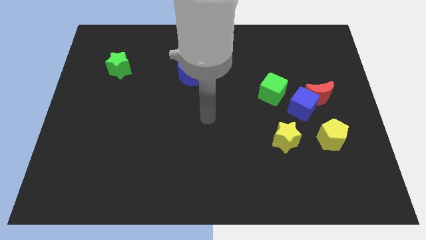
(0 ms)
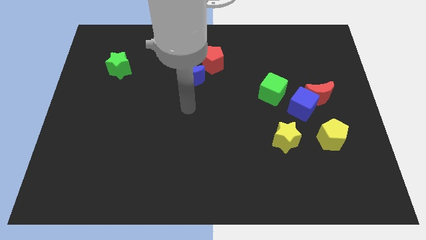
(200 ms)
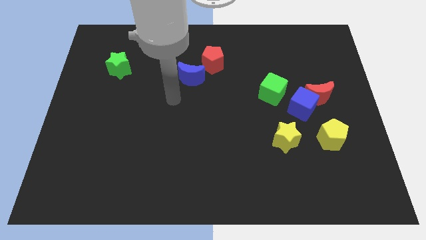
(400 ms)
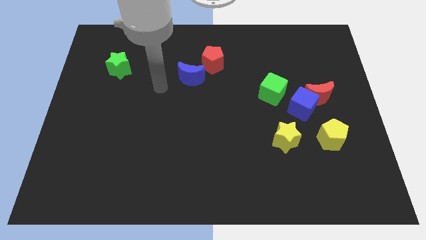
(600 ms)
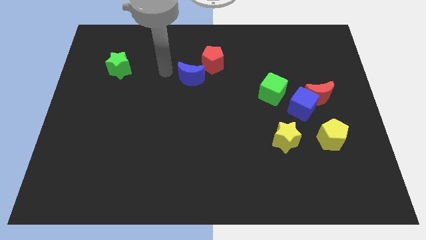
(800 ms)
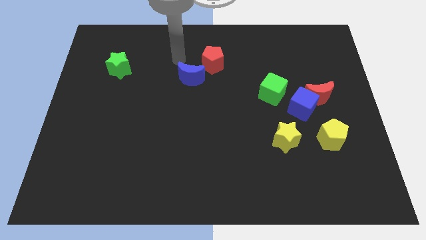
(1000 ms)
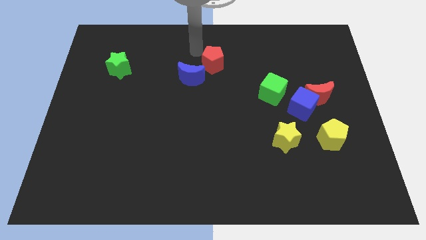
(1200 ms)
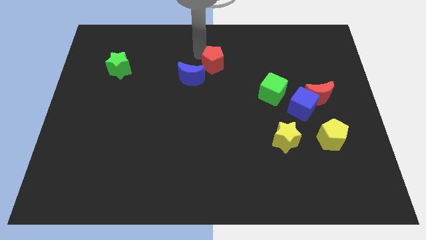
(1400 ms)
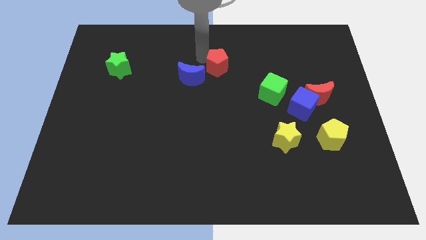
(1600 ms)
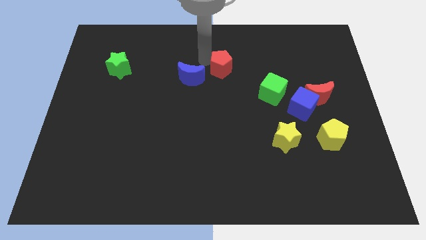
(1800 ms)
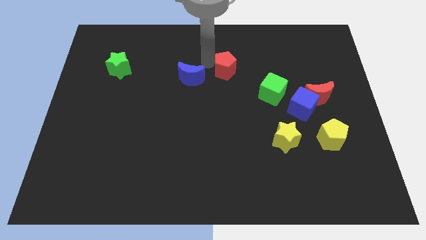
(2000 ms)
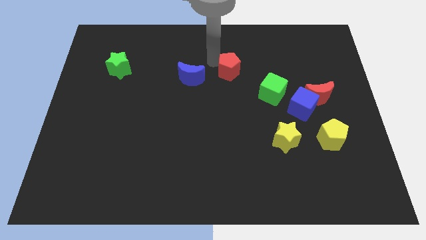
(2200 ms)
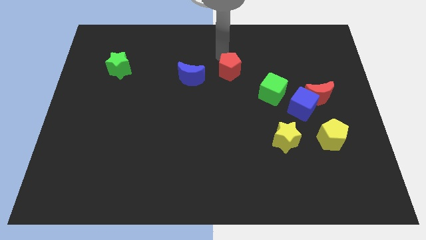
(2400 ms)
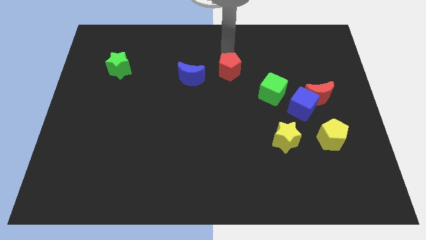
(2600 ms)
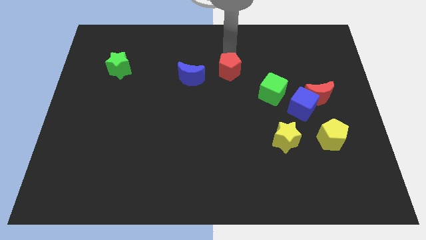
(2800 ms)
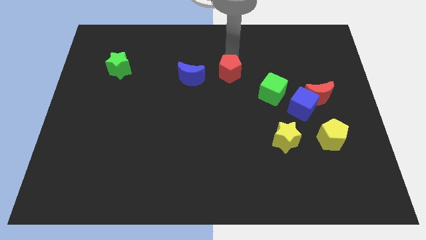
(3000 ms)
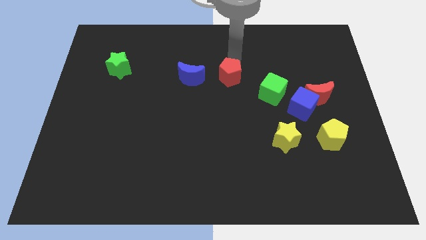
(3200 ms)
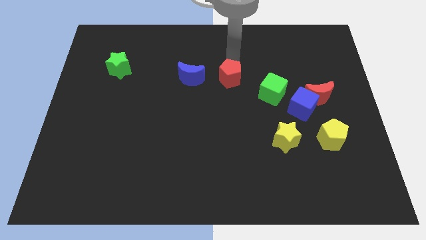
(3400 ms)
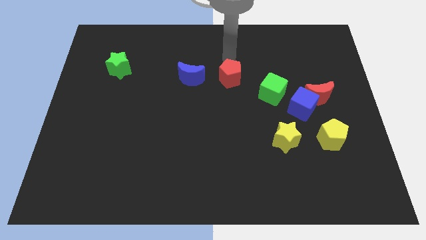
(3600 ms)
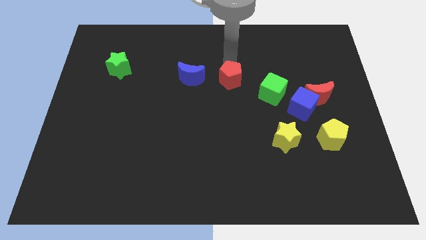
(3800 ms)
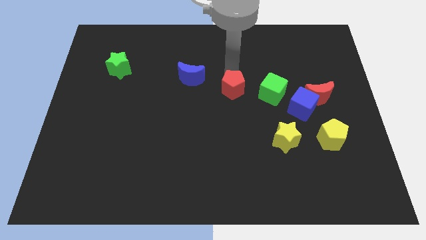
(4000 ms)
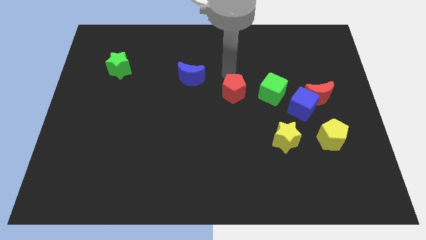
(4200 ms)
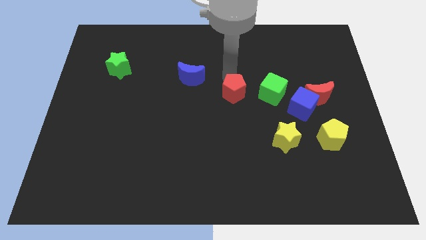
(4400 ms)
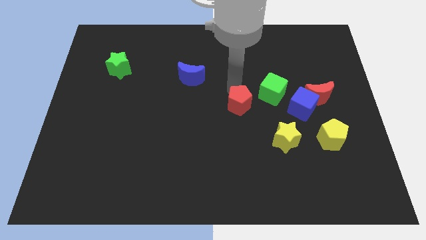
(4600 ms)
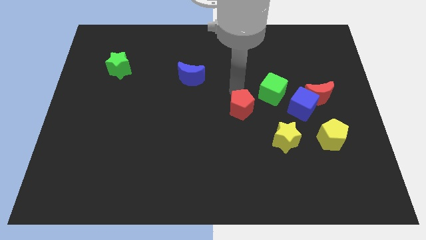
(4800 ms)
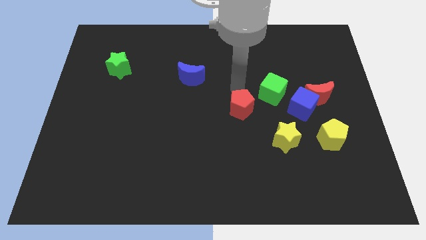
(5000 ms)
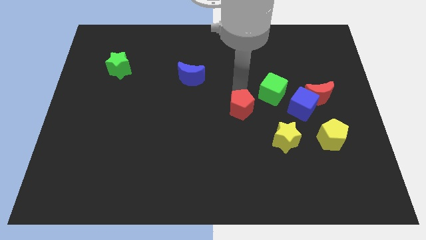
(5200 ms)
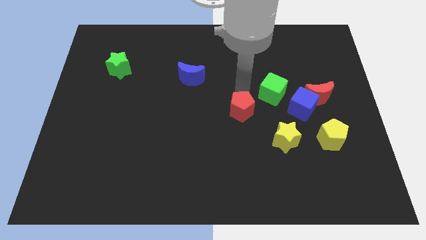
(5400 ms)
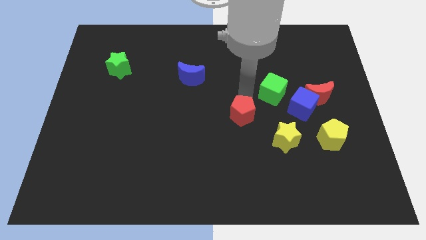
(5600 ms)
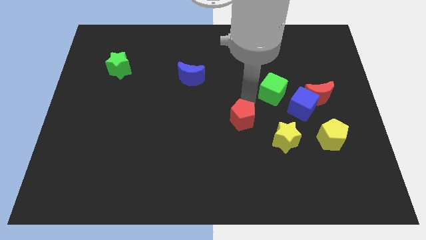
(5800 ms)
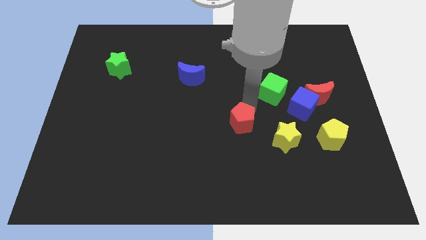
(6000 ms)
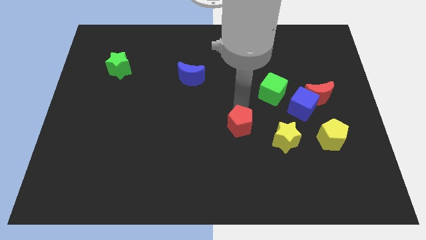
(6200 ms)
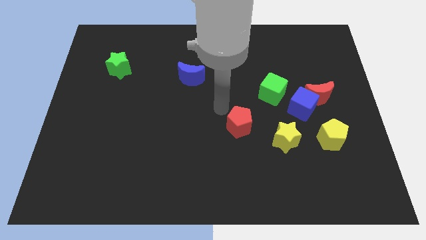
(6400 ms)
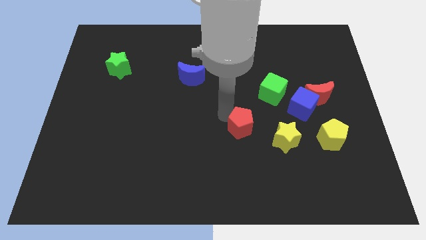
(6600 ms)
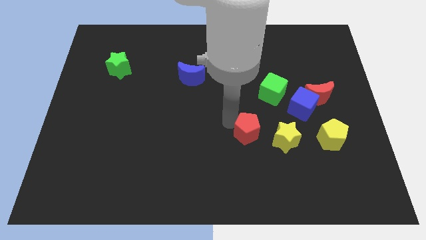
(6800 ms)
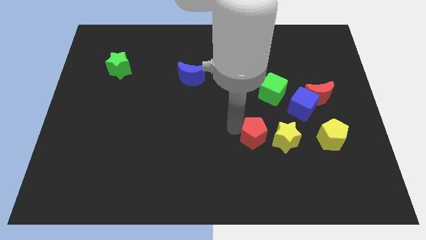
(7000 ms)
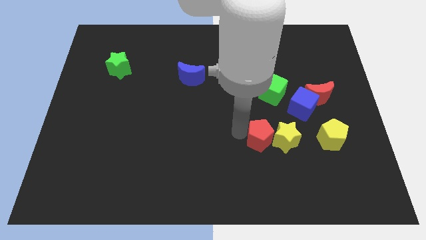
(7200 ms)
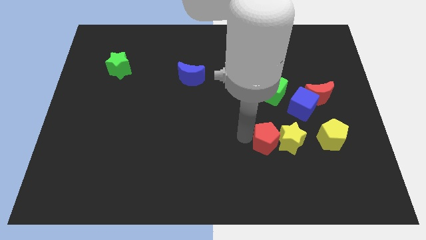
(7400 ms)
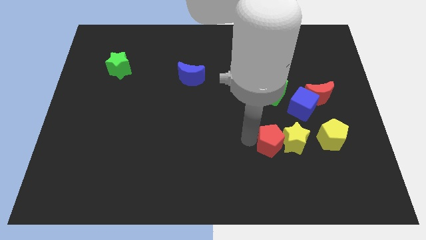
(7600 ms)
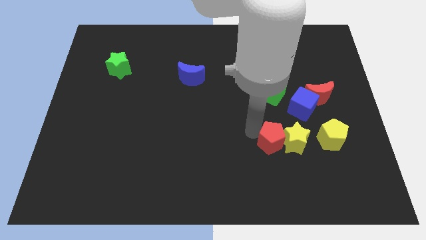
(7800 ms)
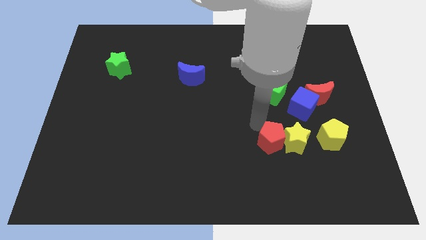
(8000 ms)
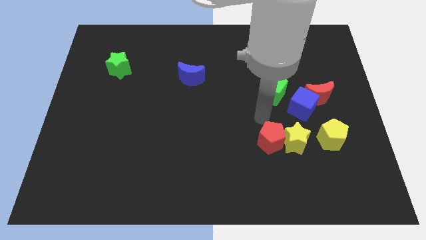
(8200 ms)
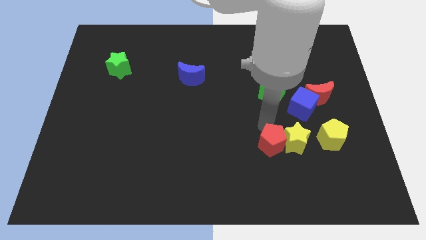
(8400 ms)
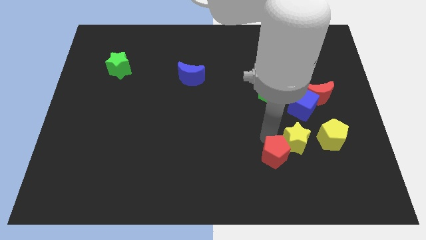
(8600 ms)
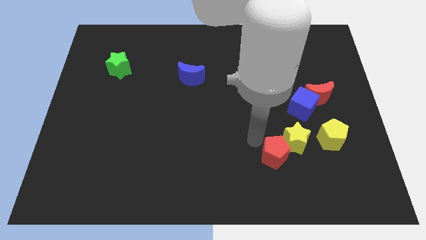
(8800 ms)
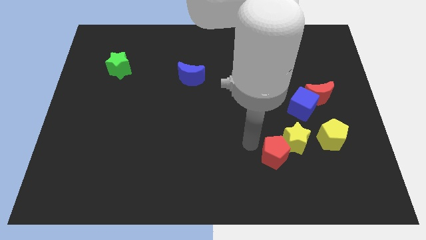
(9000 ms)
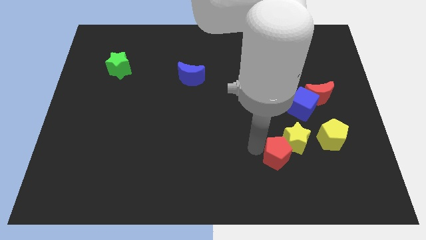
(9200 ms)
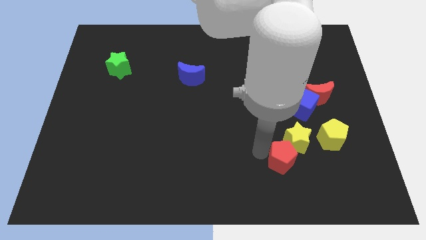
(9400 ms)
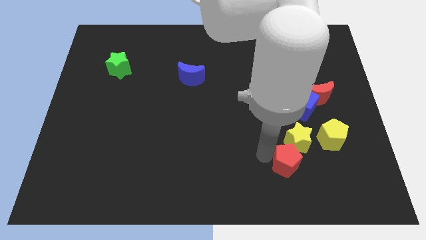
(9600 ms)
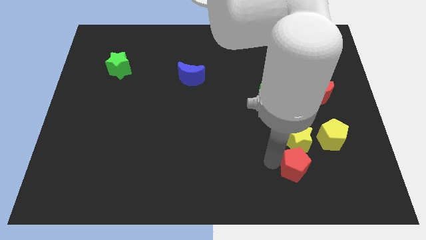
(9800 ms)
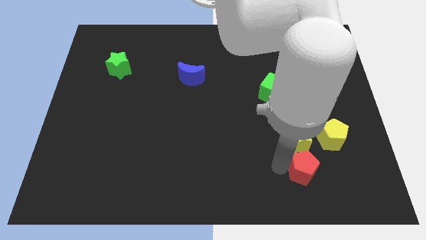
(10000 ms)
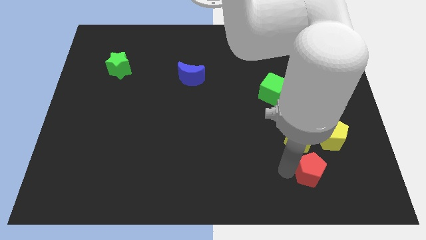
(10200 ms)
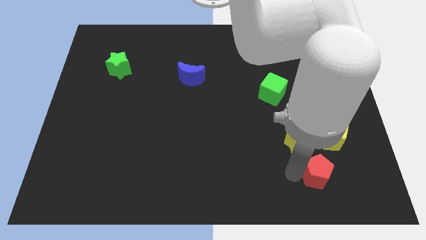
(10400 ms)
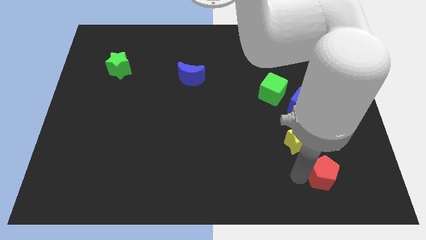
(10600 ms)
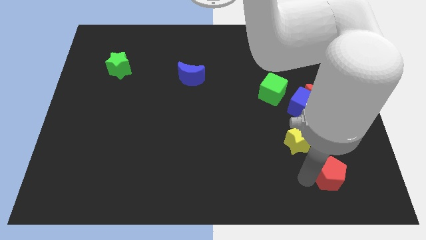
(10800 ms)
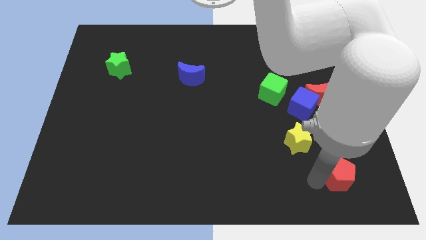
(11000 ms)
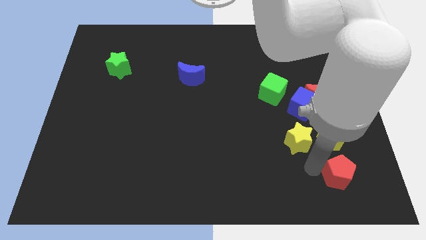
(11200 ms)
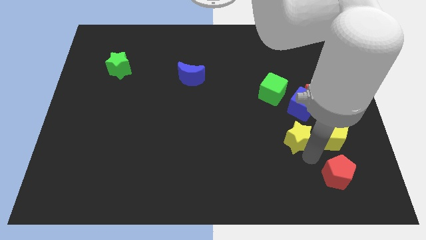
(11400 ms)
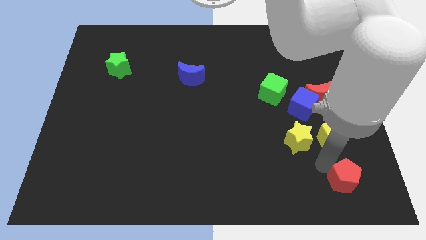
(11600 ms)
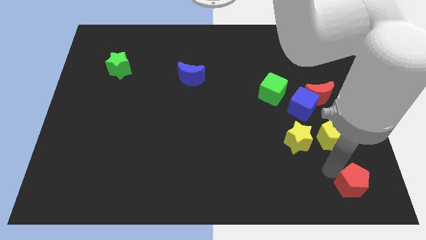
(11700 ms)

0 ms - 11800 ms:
put the red pentagon to the bottom right

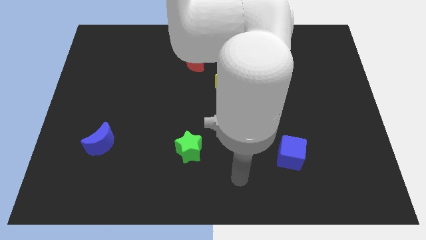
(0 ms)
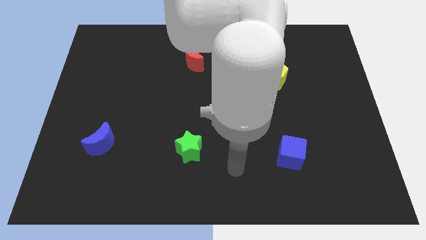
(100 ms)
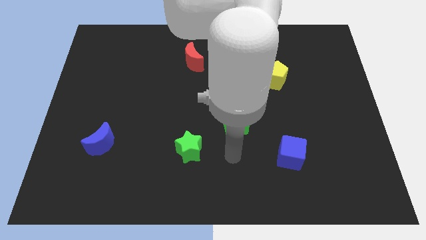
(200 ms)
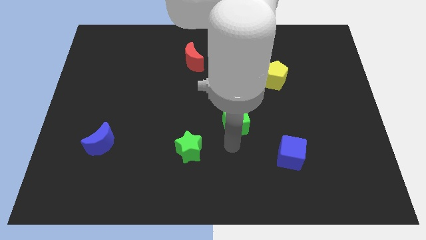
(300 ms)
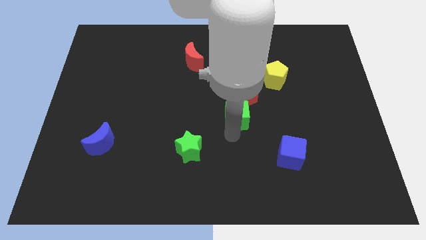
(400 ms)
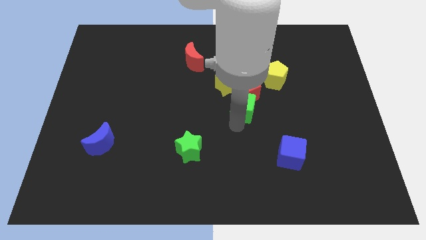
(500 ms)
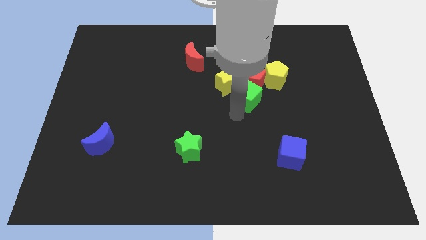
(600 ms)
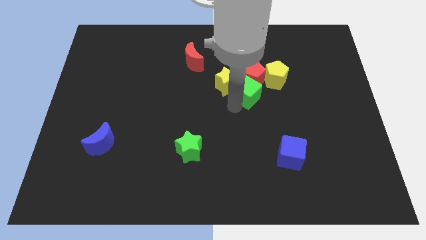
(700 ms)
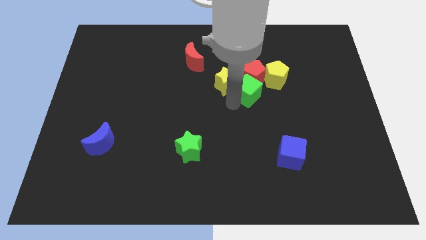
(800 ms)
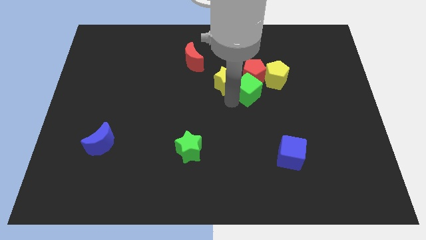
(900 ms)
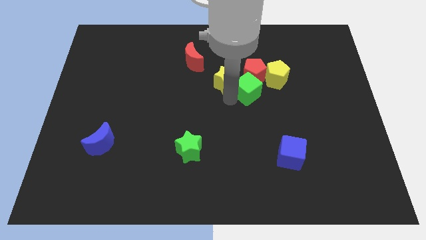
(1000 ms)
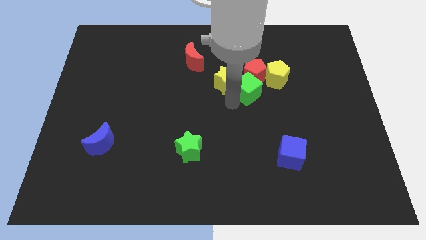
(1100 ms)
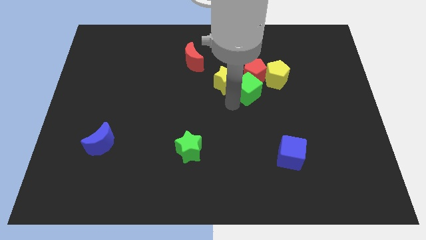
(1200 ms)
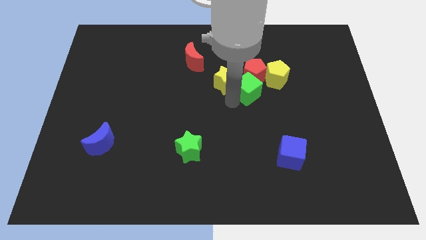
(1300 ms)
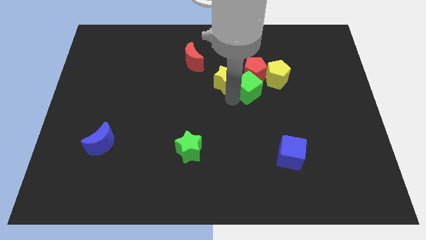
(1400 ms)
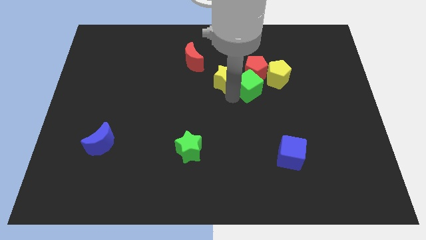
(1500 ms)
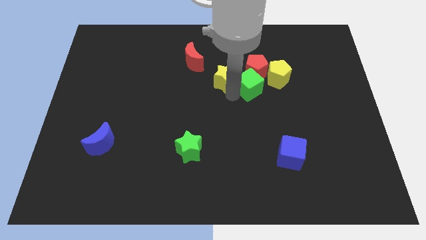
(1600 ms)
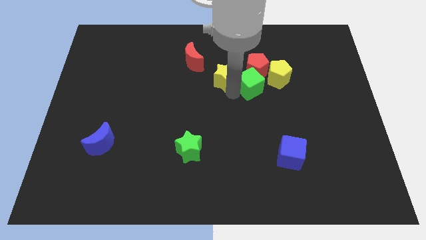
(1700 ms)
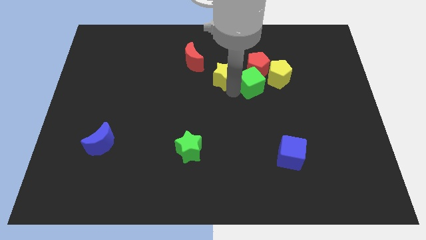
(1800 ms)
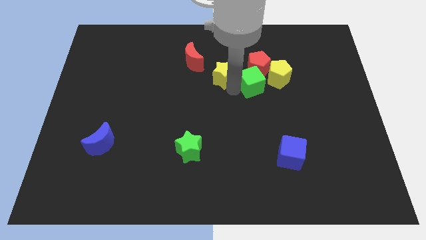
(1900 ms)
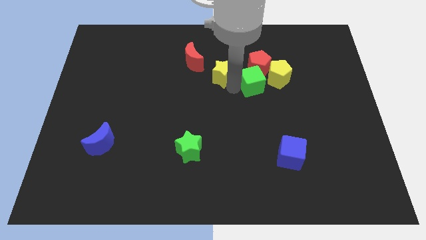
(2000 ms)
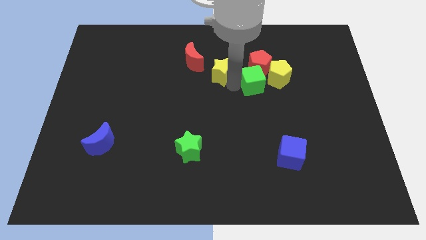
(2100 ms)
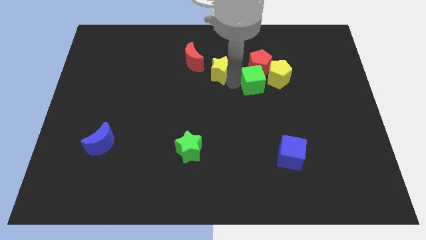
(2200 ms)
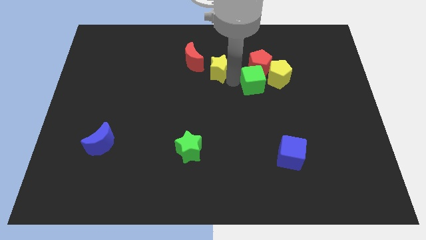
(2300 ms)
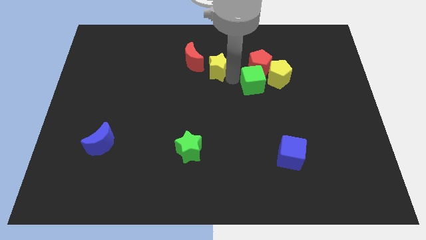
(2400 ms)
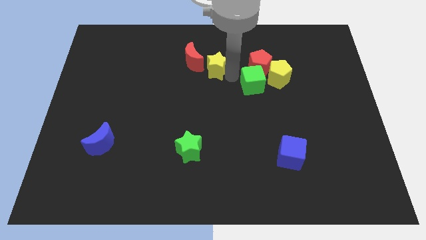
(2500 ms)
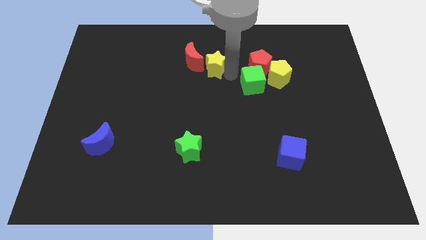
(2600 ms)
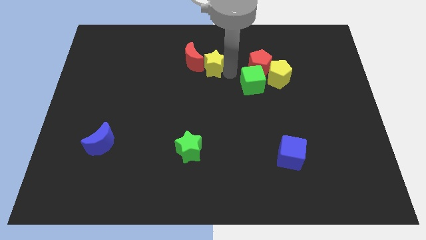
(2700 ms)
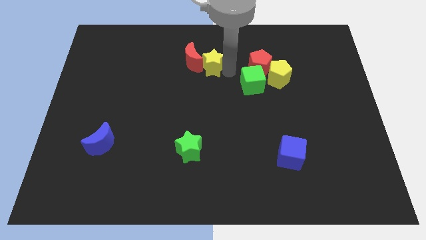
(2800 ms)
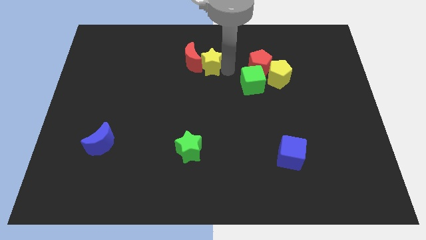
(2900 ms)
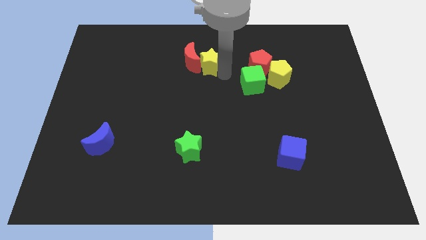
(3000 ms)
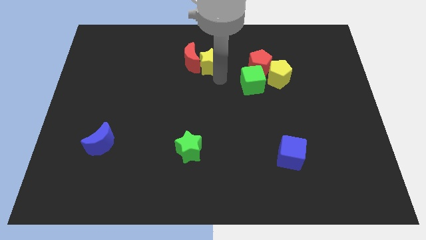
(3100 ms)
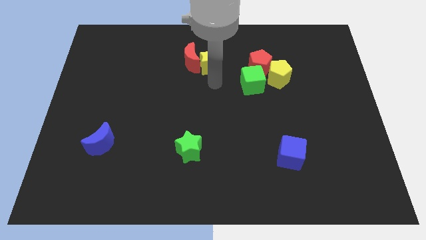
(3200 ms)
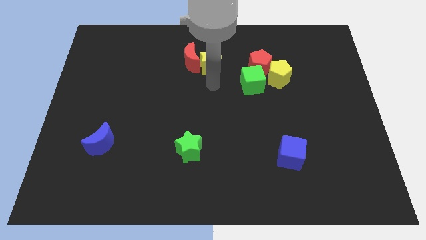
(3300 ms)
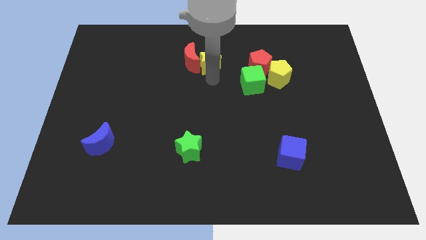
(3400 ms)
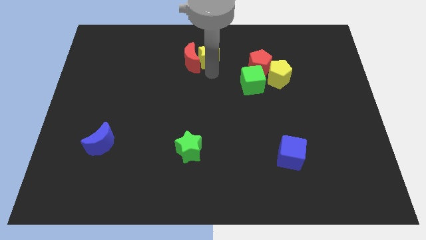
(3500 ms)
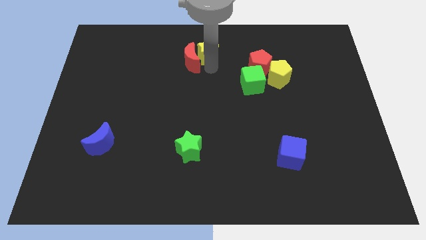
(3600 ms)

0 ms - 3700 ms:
slide the yellow star to the top
